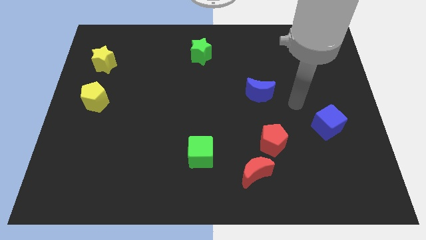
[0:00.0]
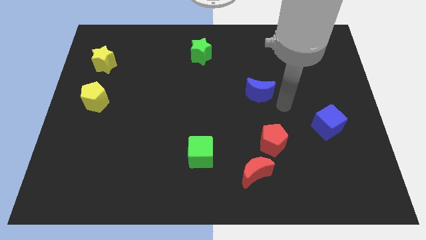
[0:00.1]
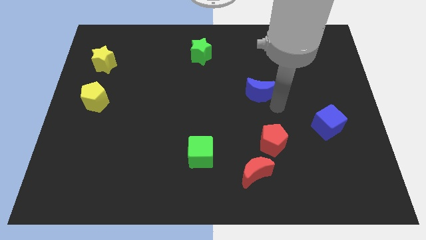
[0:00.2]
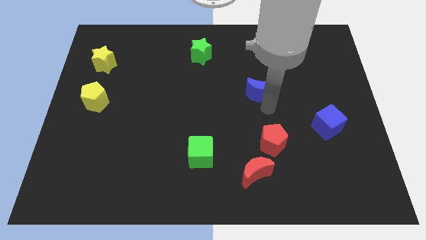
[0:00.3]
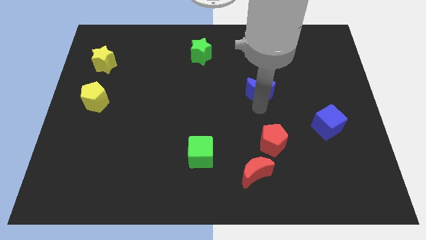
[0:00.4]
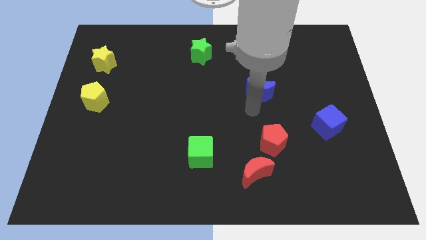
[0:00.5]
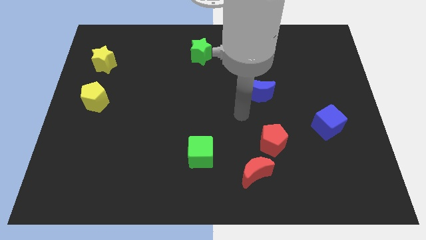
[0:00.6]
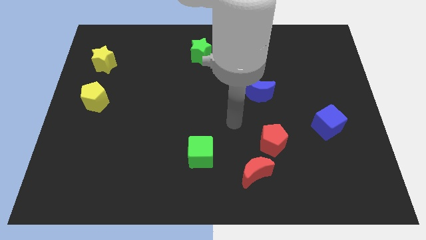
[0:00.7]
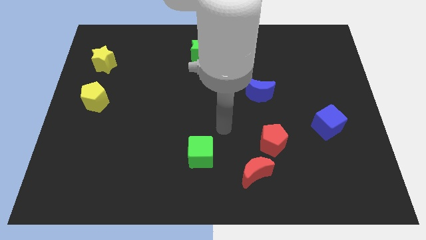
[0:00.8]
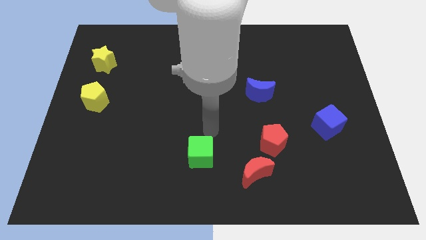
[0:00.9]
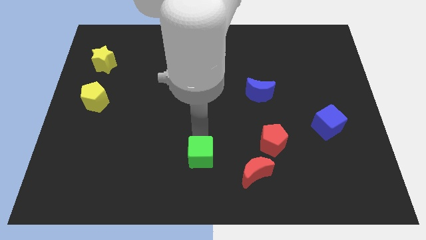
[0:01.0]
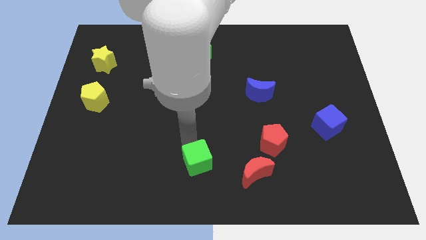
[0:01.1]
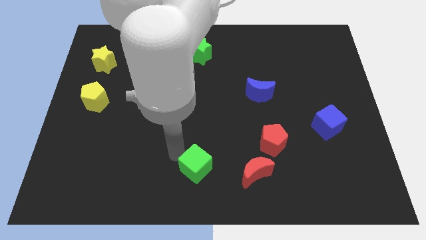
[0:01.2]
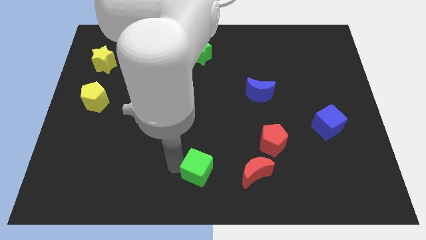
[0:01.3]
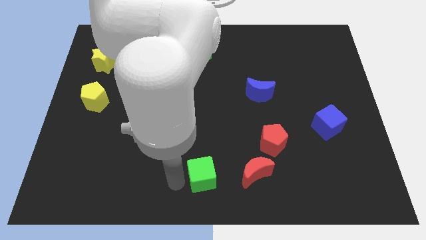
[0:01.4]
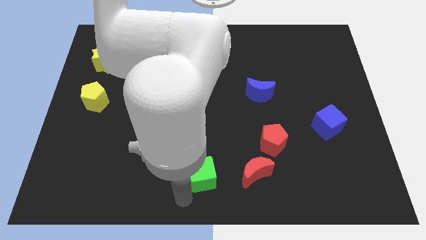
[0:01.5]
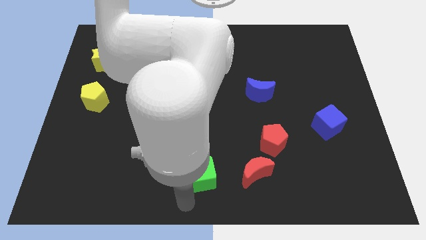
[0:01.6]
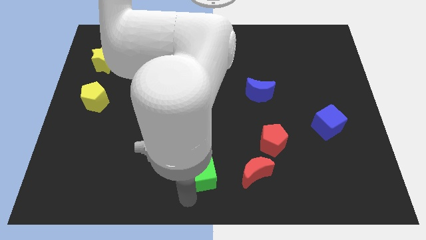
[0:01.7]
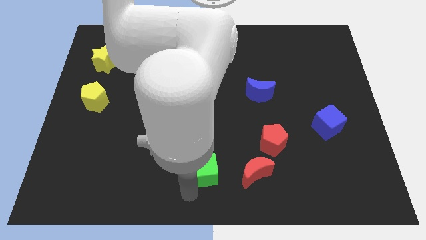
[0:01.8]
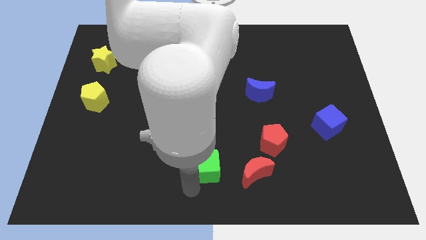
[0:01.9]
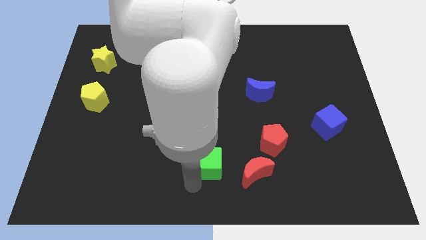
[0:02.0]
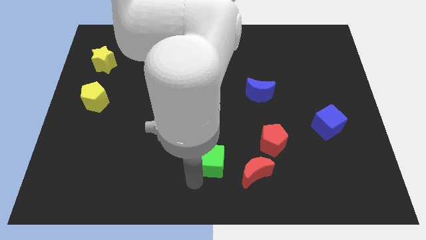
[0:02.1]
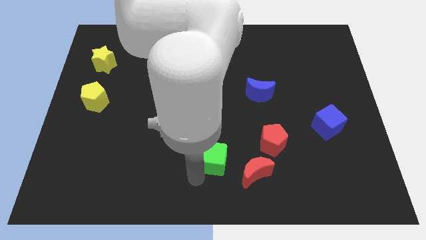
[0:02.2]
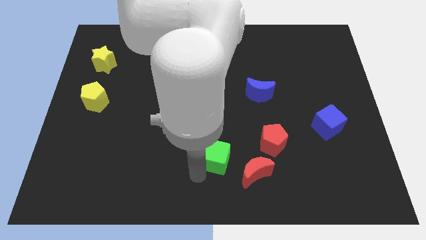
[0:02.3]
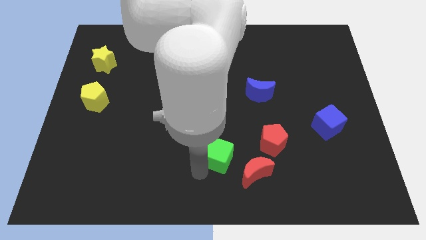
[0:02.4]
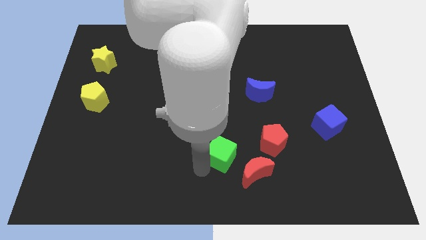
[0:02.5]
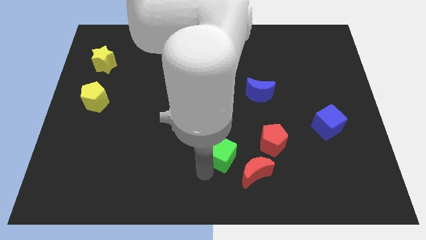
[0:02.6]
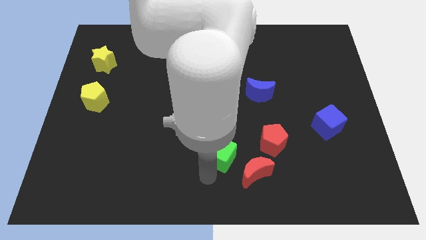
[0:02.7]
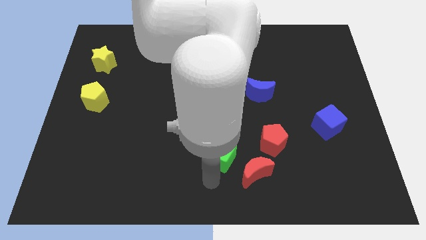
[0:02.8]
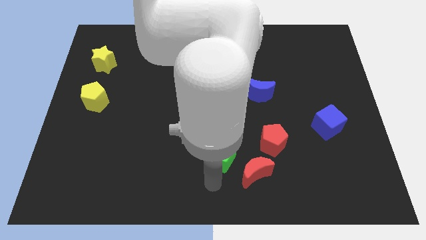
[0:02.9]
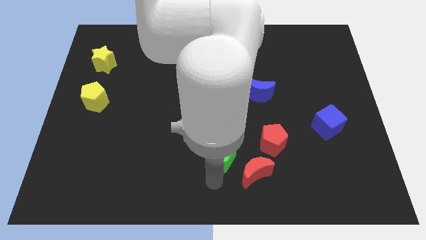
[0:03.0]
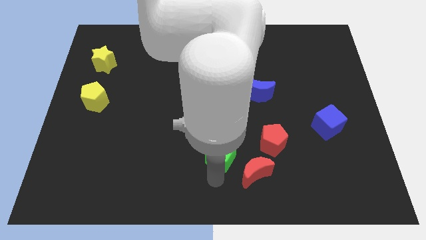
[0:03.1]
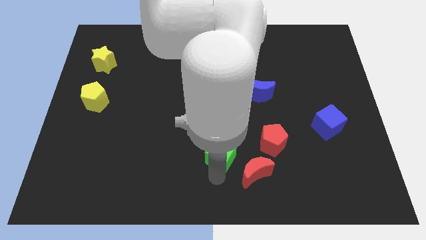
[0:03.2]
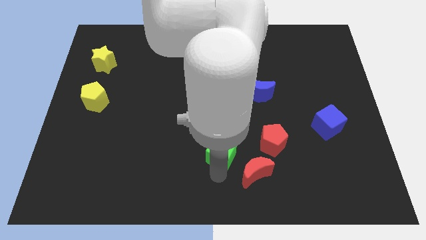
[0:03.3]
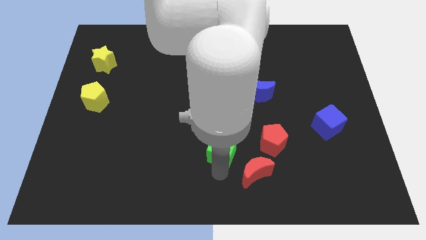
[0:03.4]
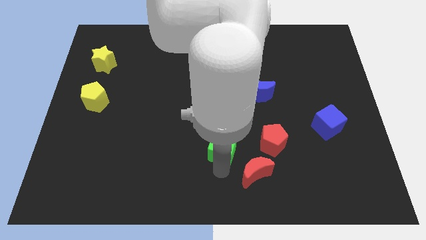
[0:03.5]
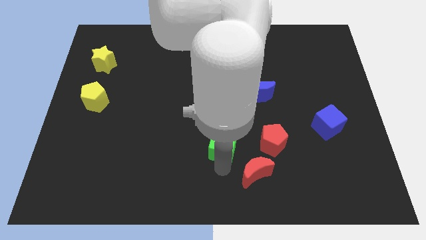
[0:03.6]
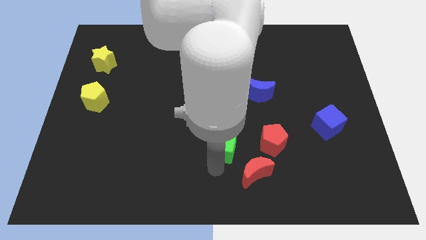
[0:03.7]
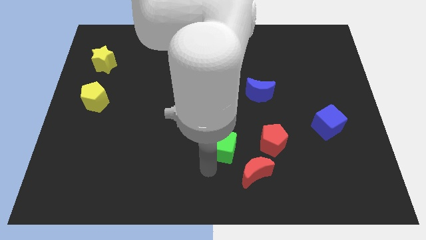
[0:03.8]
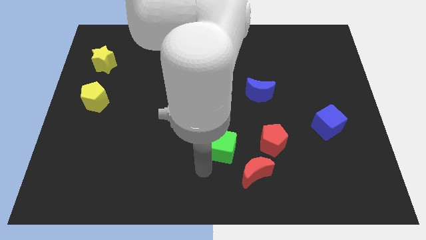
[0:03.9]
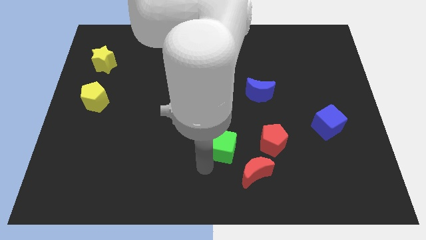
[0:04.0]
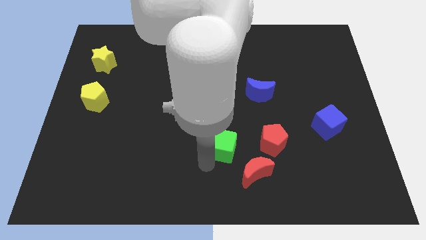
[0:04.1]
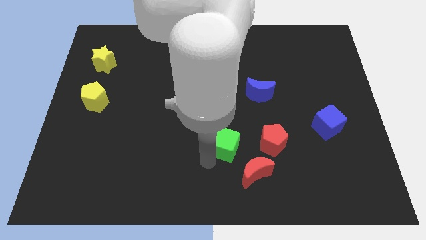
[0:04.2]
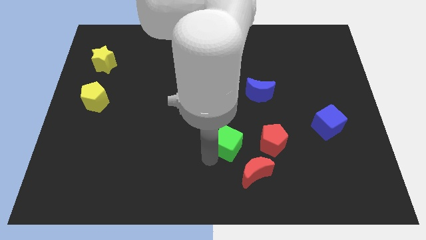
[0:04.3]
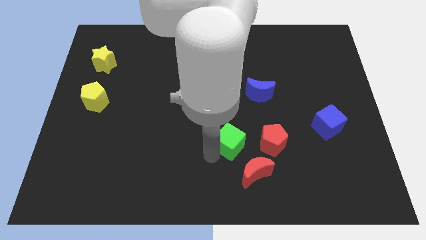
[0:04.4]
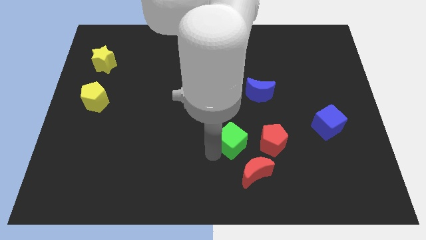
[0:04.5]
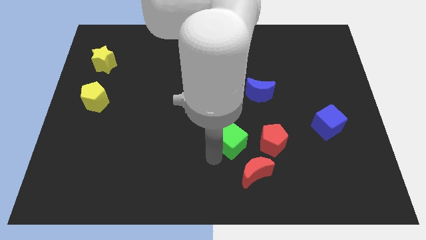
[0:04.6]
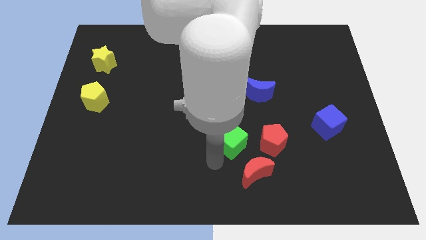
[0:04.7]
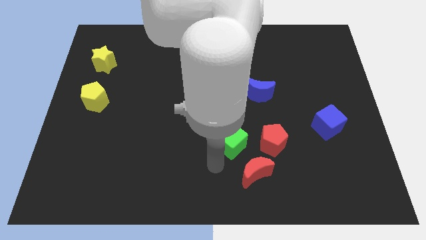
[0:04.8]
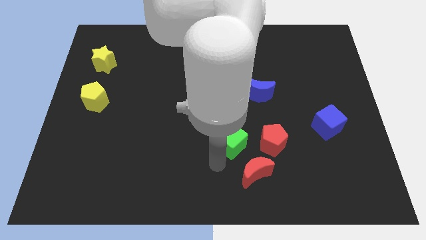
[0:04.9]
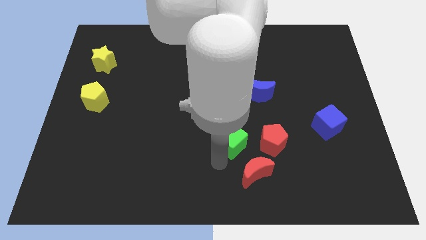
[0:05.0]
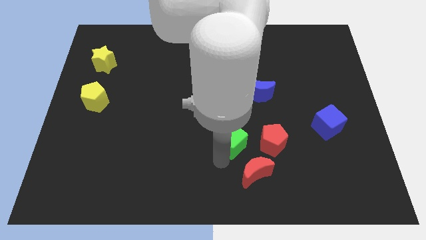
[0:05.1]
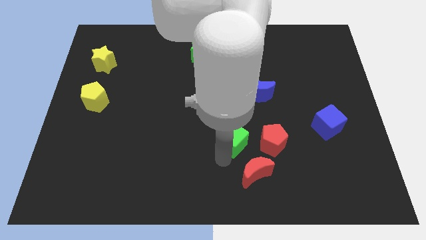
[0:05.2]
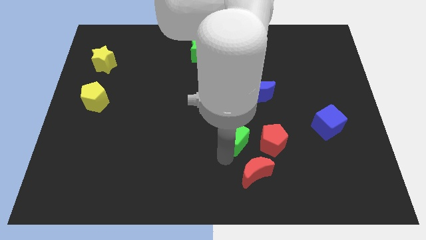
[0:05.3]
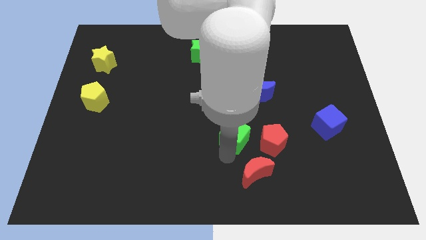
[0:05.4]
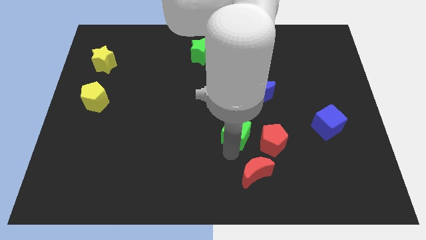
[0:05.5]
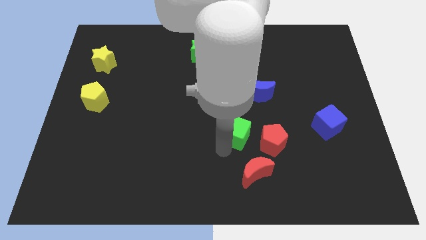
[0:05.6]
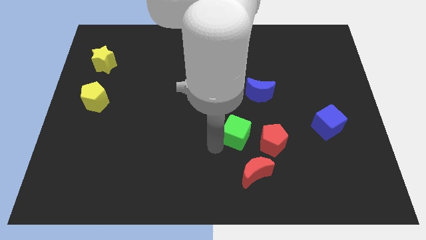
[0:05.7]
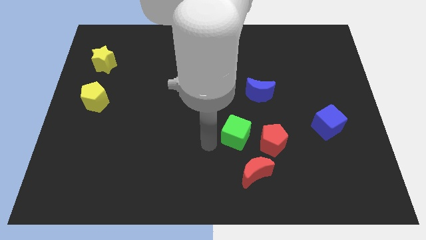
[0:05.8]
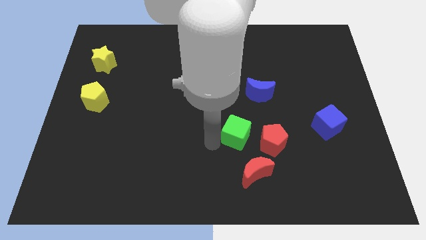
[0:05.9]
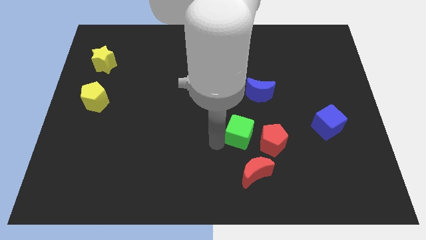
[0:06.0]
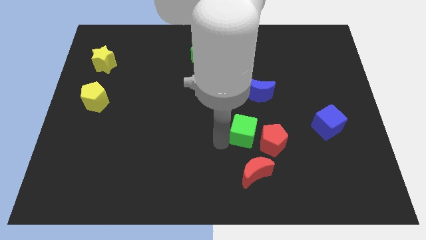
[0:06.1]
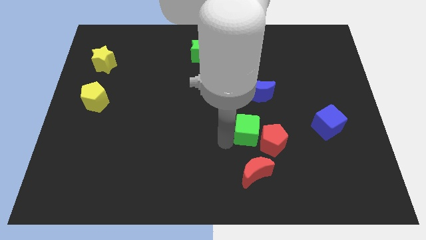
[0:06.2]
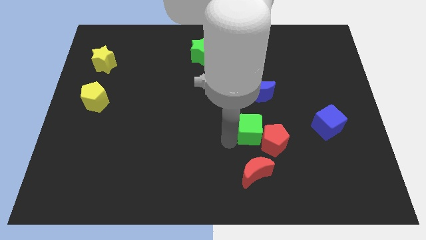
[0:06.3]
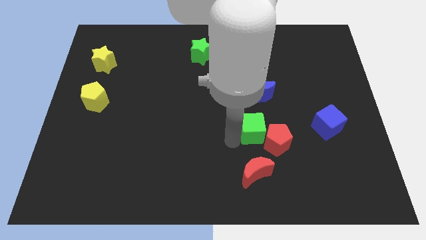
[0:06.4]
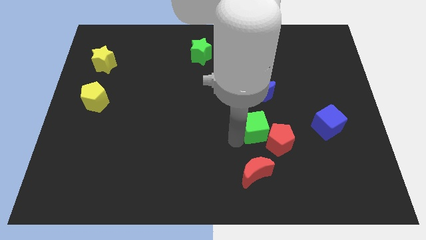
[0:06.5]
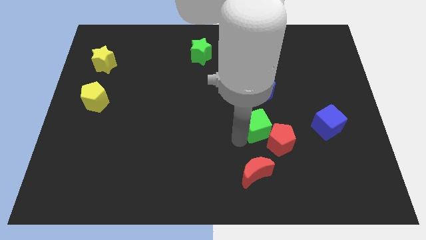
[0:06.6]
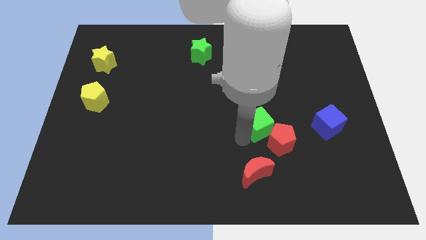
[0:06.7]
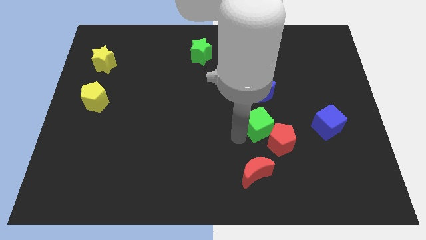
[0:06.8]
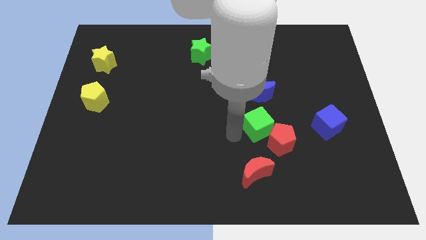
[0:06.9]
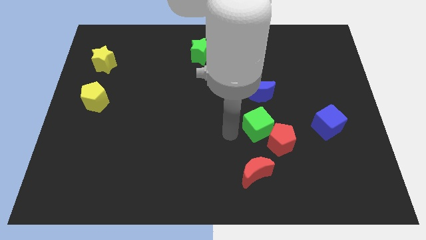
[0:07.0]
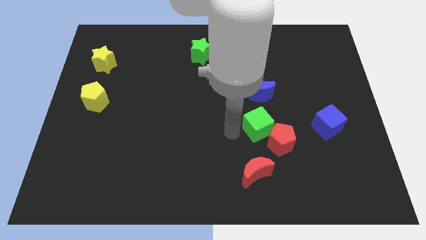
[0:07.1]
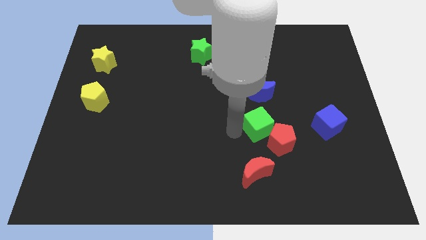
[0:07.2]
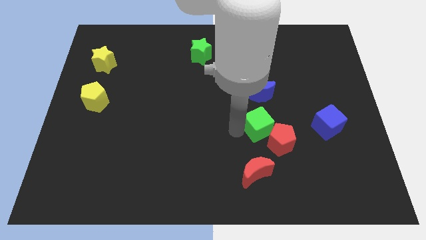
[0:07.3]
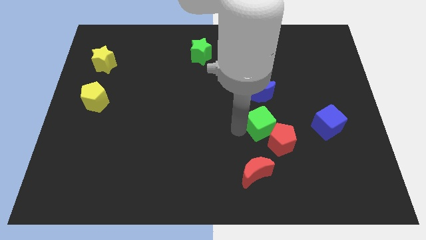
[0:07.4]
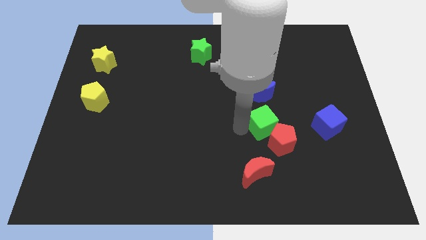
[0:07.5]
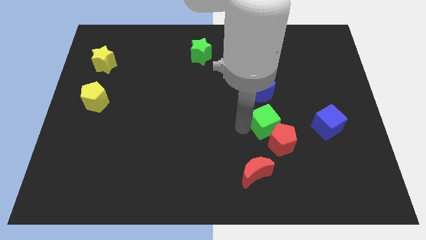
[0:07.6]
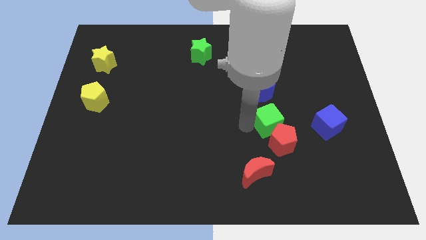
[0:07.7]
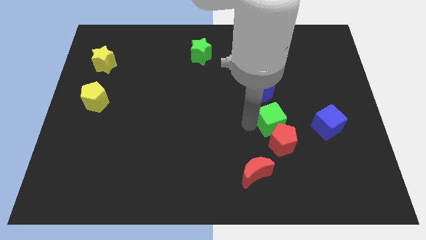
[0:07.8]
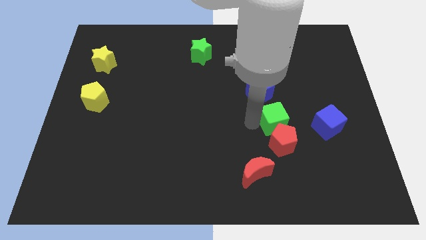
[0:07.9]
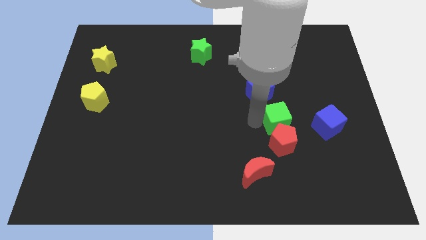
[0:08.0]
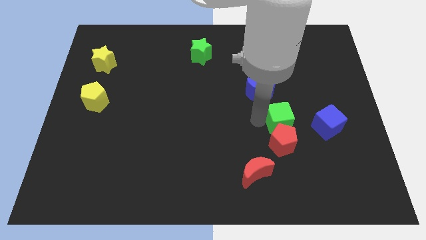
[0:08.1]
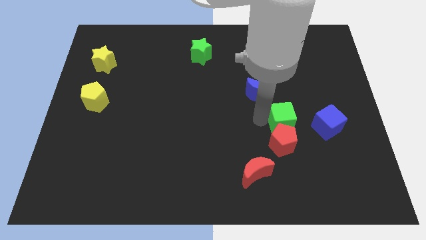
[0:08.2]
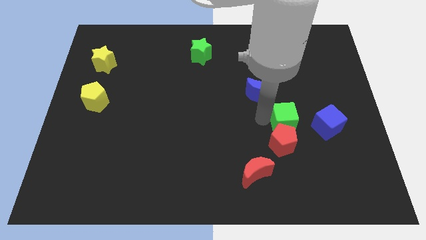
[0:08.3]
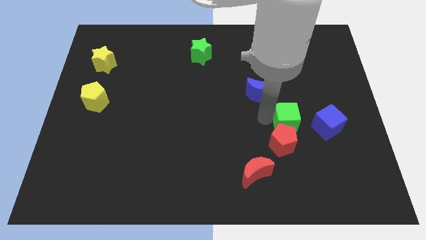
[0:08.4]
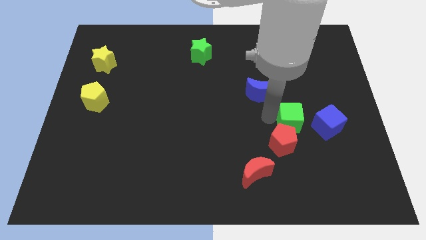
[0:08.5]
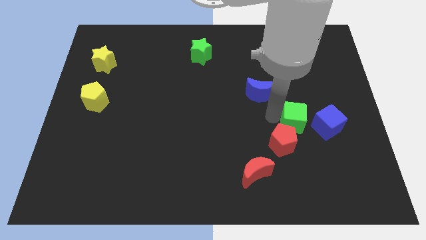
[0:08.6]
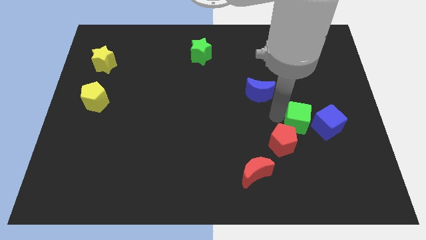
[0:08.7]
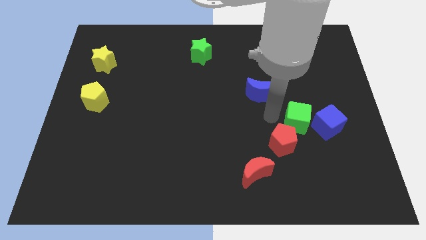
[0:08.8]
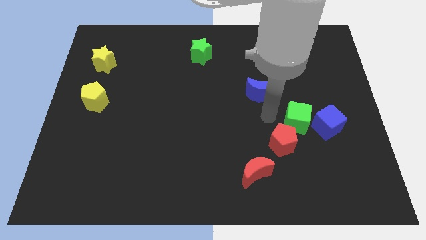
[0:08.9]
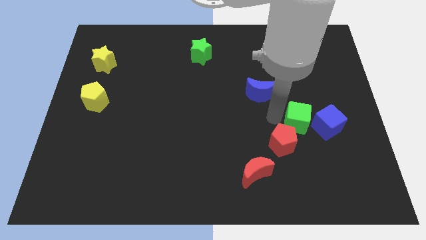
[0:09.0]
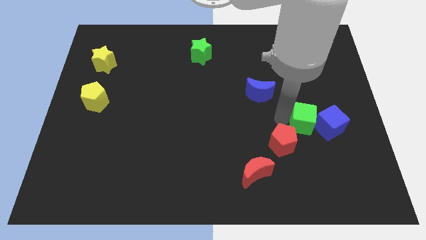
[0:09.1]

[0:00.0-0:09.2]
move the green cube next to the blue cube
